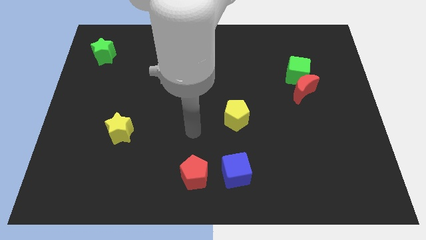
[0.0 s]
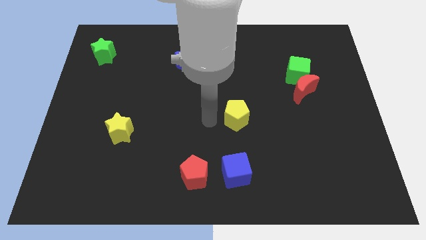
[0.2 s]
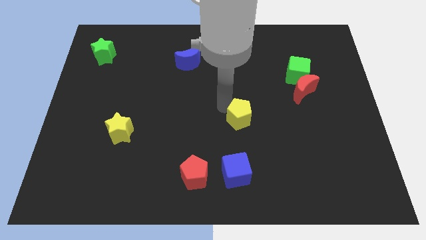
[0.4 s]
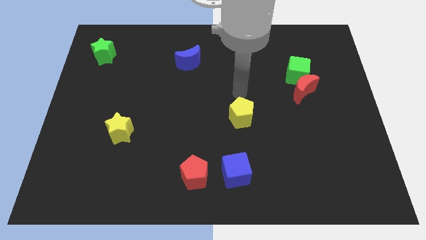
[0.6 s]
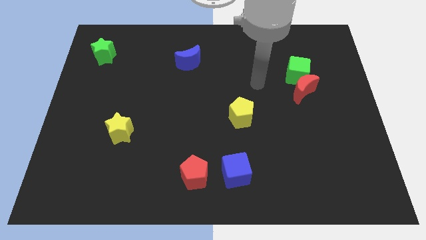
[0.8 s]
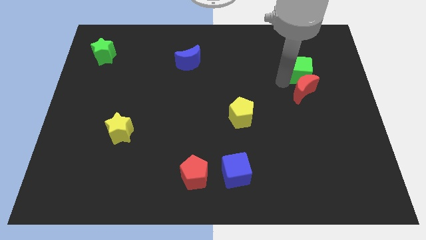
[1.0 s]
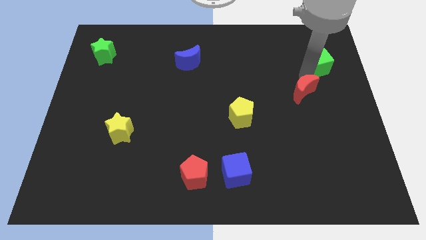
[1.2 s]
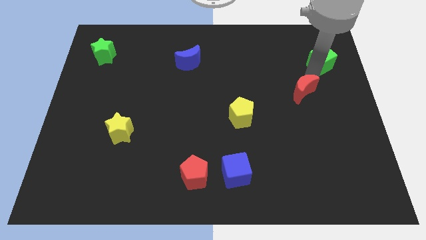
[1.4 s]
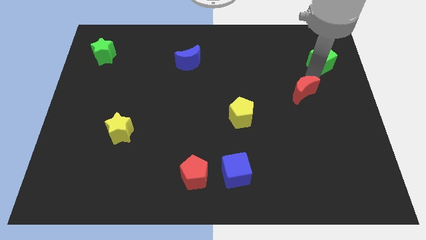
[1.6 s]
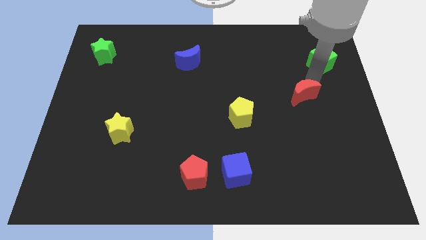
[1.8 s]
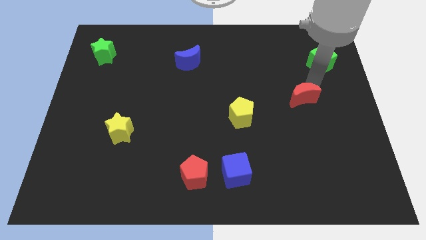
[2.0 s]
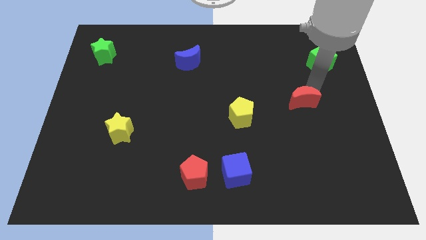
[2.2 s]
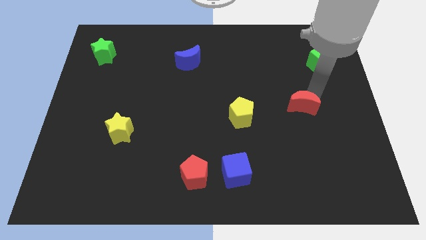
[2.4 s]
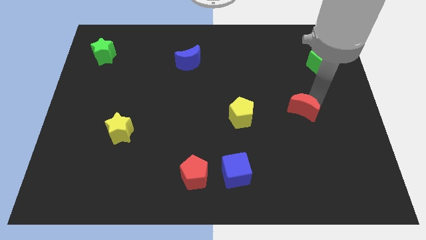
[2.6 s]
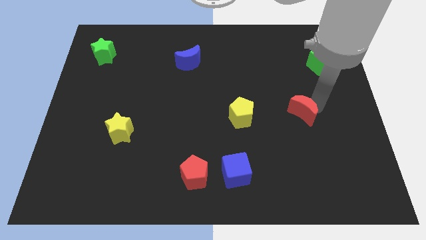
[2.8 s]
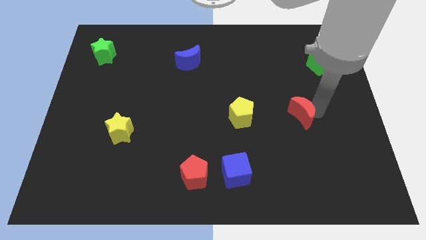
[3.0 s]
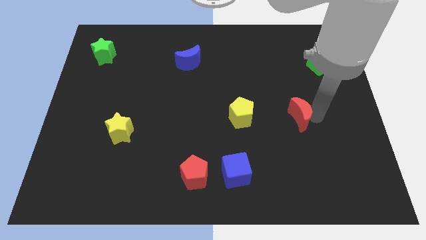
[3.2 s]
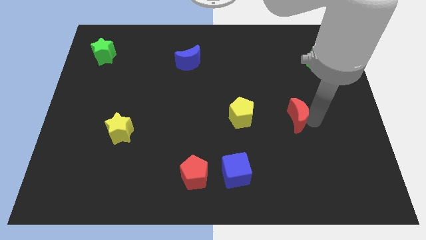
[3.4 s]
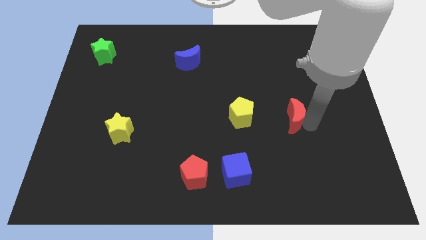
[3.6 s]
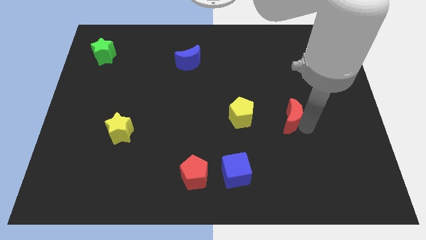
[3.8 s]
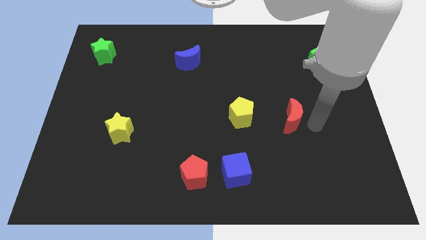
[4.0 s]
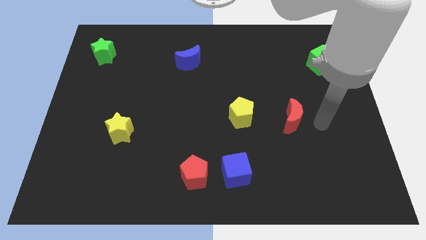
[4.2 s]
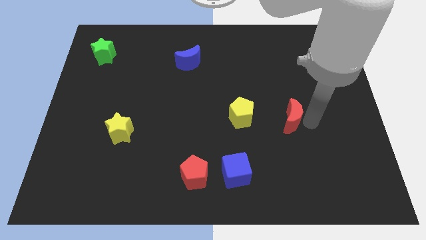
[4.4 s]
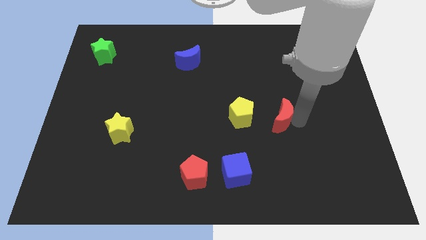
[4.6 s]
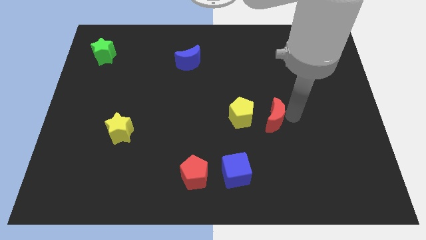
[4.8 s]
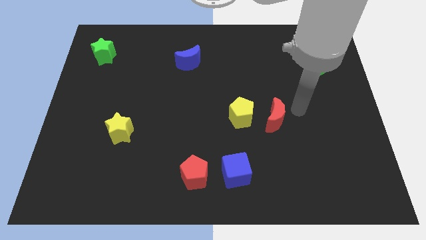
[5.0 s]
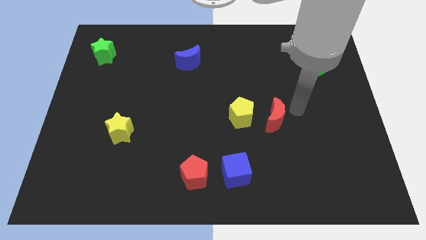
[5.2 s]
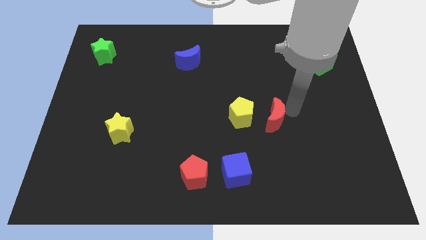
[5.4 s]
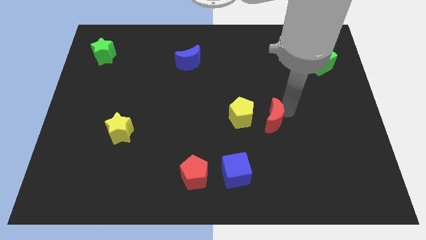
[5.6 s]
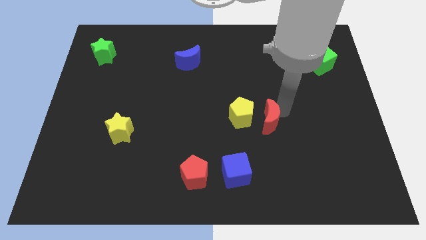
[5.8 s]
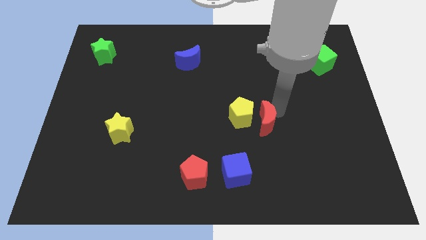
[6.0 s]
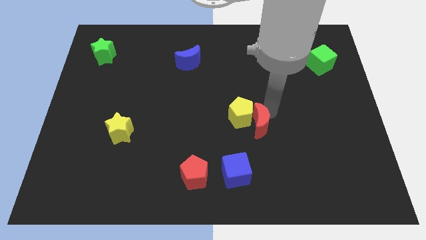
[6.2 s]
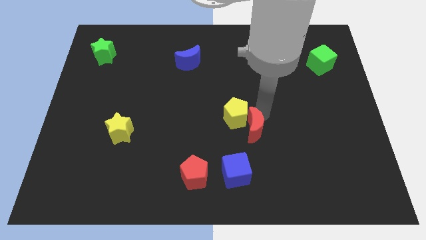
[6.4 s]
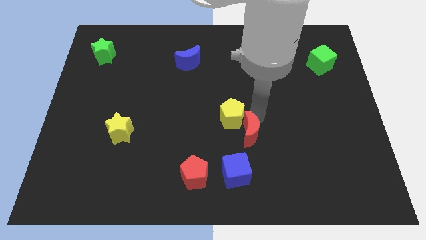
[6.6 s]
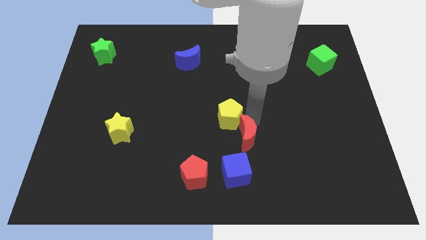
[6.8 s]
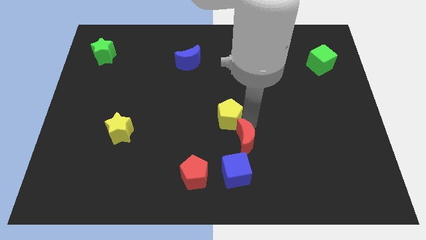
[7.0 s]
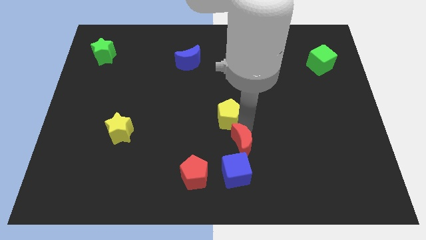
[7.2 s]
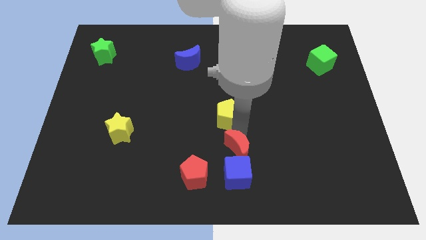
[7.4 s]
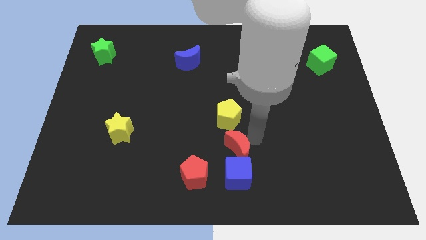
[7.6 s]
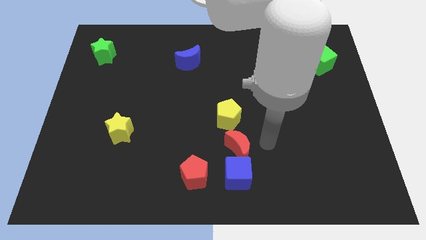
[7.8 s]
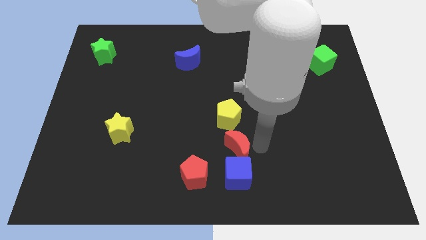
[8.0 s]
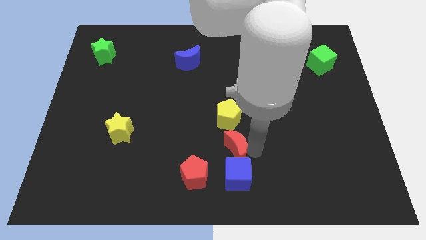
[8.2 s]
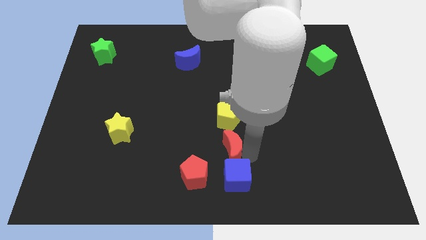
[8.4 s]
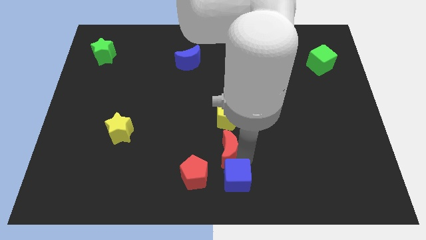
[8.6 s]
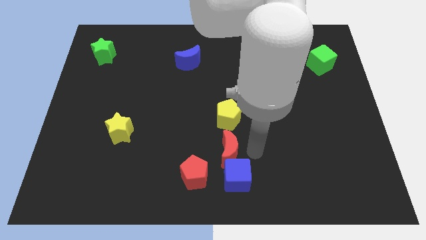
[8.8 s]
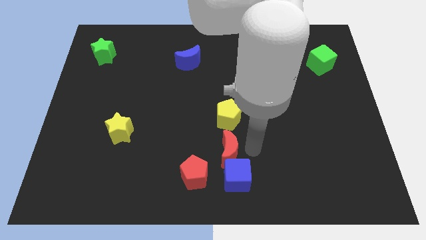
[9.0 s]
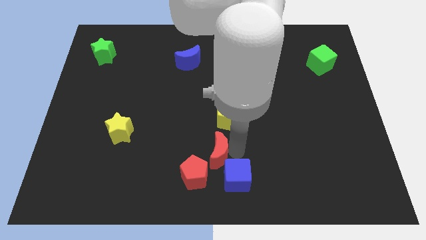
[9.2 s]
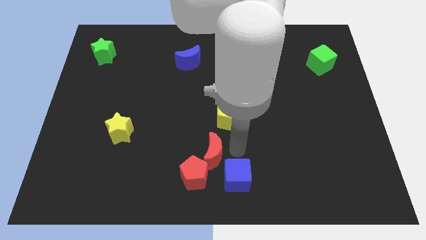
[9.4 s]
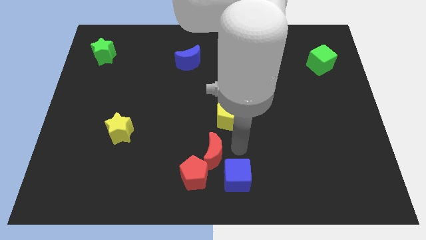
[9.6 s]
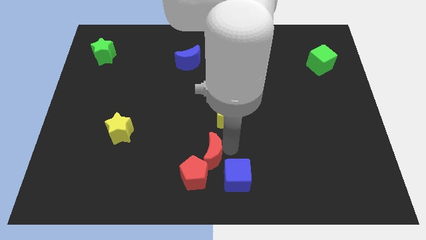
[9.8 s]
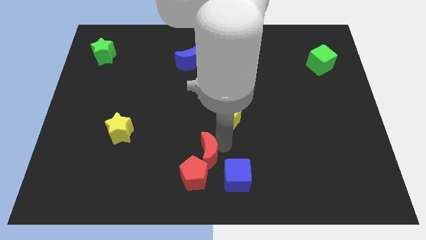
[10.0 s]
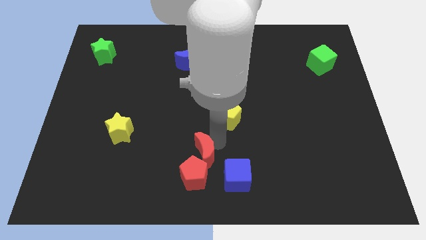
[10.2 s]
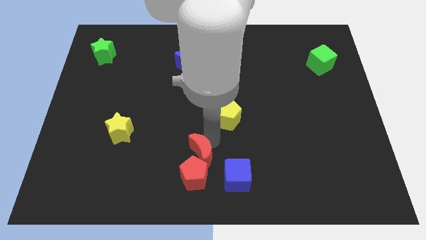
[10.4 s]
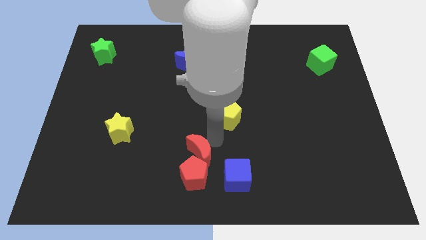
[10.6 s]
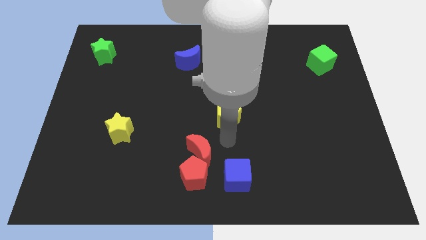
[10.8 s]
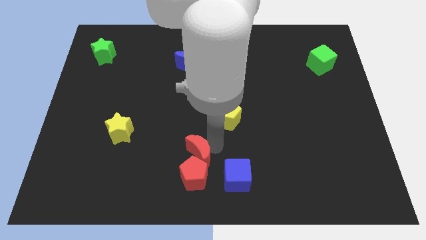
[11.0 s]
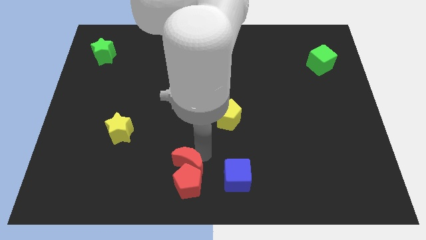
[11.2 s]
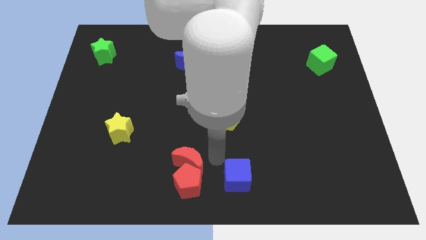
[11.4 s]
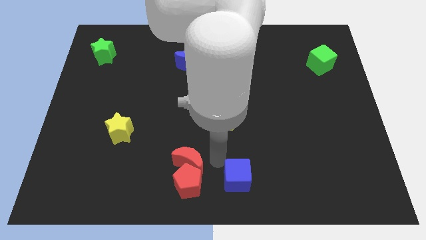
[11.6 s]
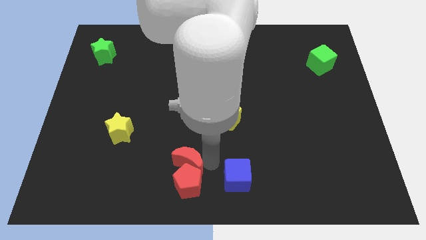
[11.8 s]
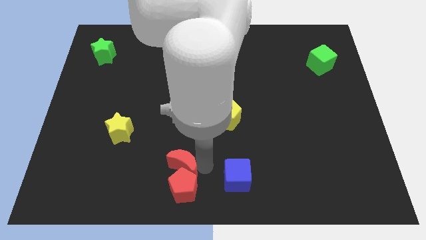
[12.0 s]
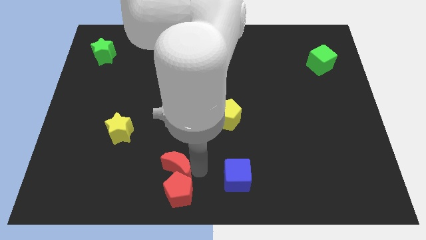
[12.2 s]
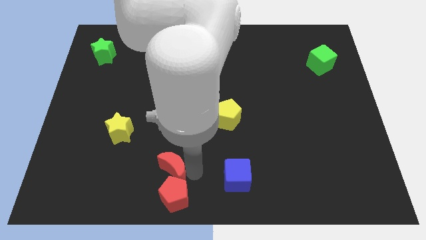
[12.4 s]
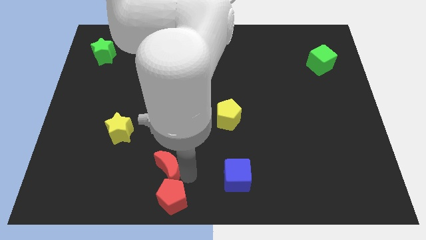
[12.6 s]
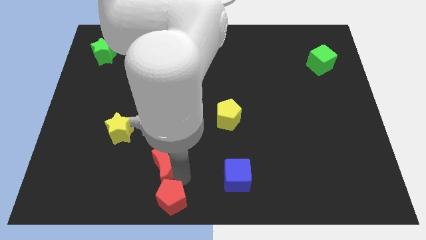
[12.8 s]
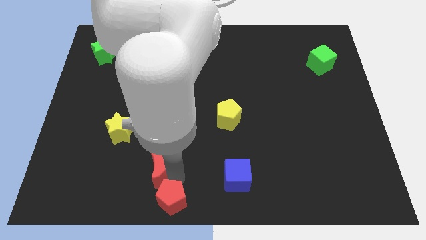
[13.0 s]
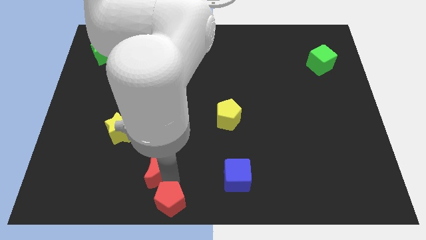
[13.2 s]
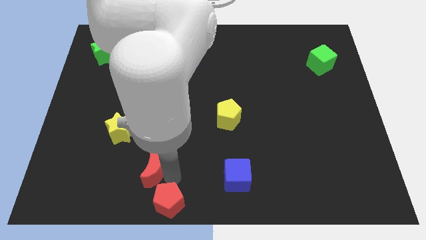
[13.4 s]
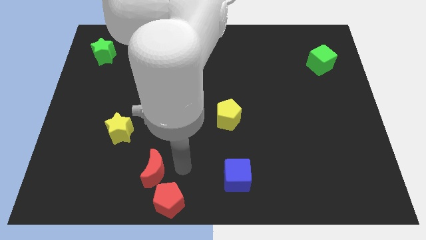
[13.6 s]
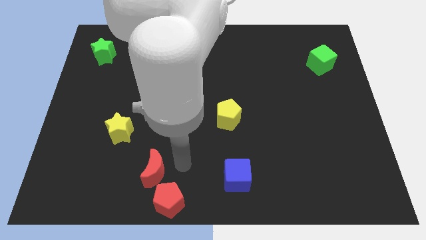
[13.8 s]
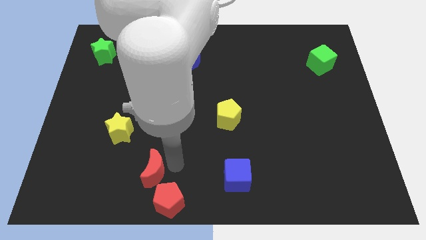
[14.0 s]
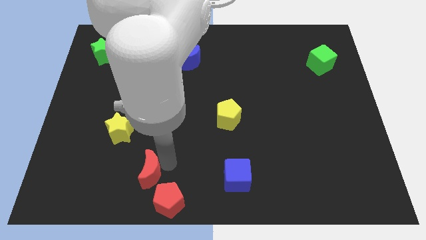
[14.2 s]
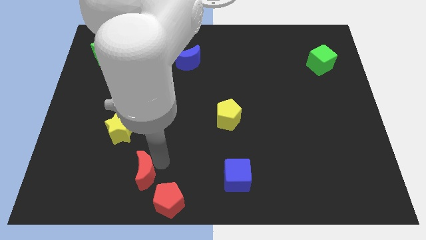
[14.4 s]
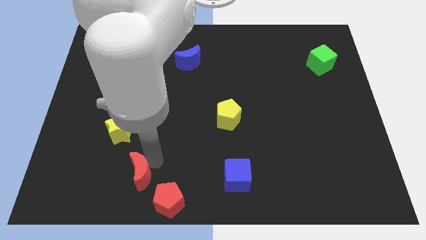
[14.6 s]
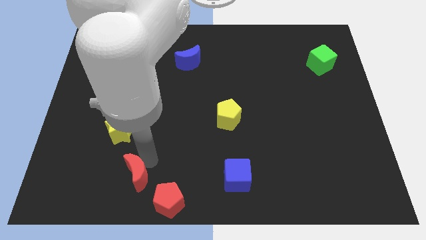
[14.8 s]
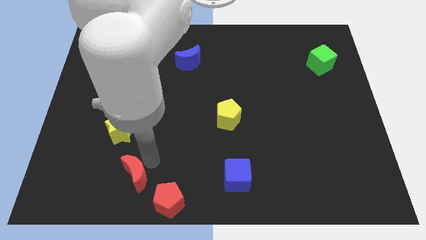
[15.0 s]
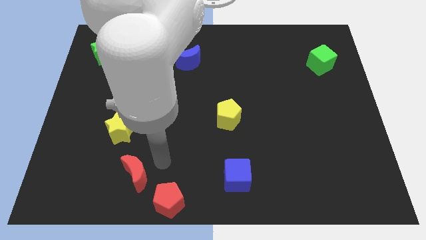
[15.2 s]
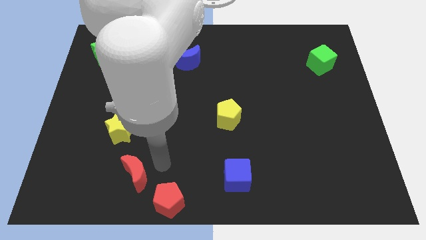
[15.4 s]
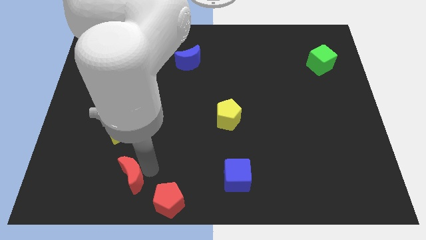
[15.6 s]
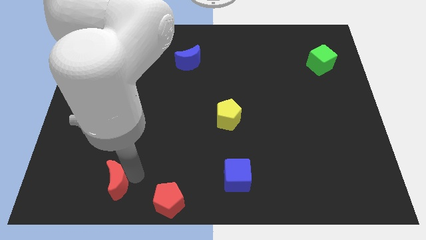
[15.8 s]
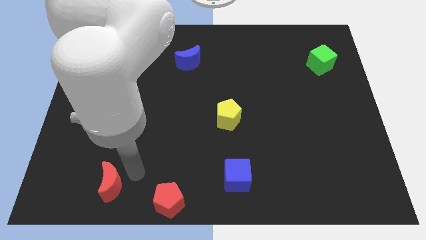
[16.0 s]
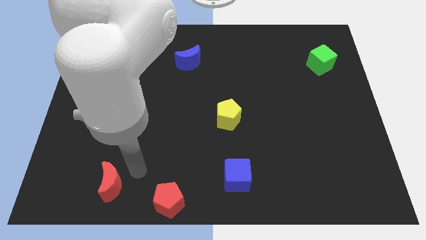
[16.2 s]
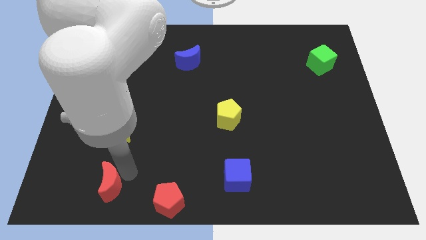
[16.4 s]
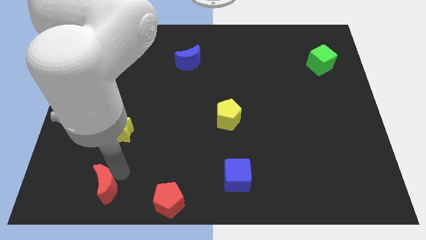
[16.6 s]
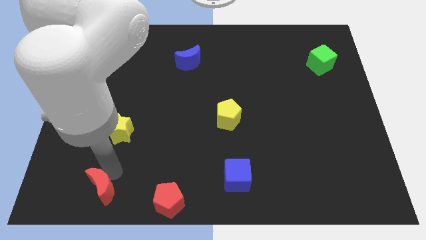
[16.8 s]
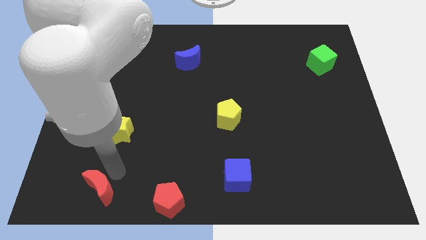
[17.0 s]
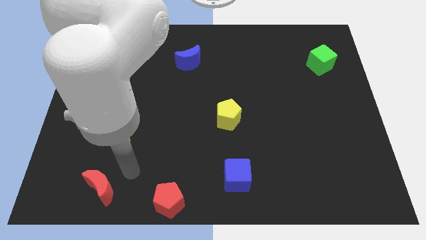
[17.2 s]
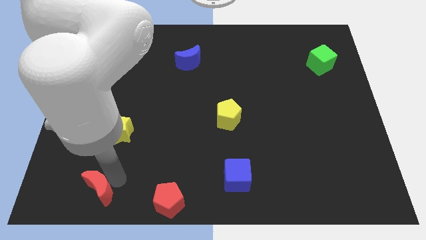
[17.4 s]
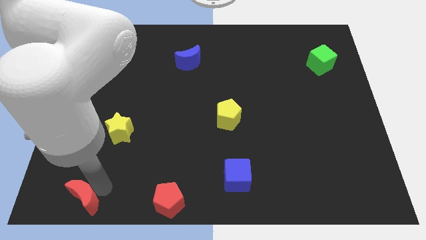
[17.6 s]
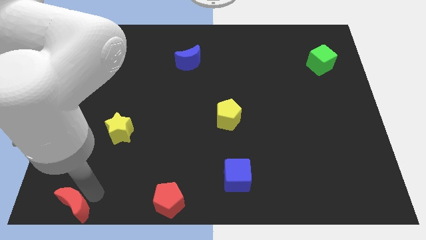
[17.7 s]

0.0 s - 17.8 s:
move the red moon to the bottom left
